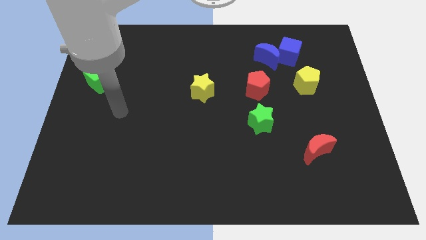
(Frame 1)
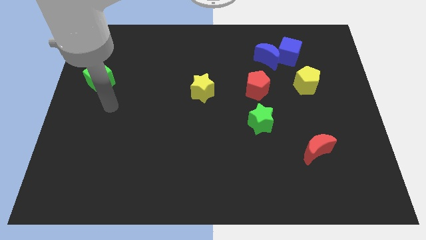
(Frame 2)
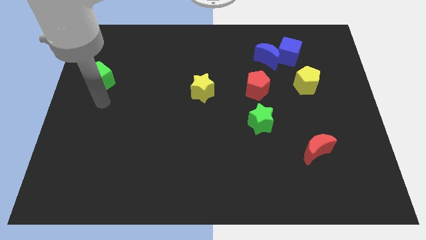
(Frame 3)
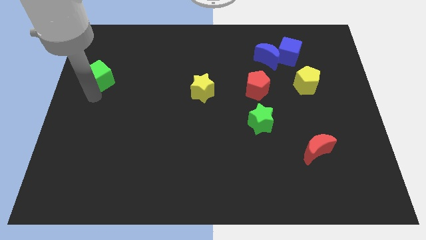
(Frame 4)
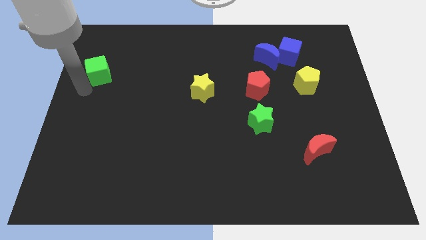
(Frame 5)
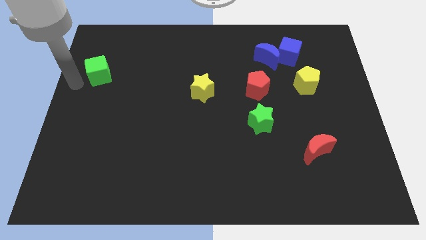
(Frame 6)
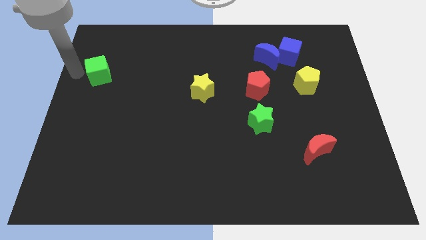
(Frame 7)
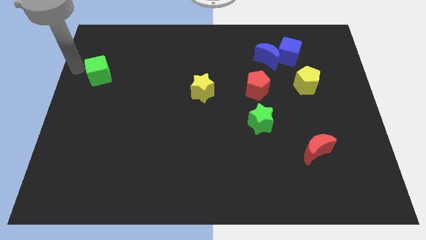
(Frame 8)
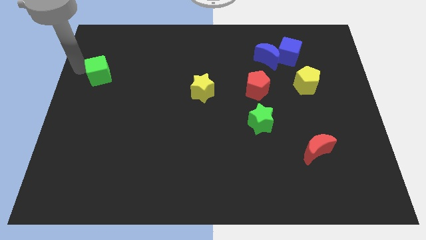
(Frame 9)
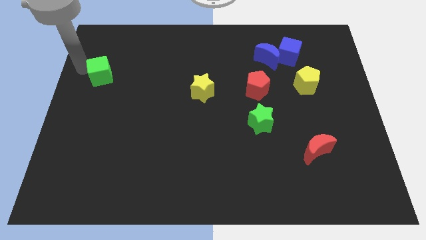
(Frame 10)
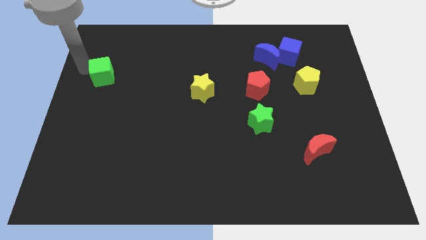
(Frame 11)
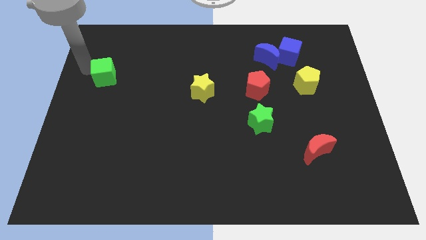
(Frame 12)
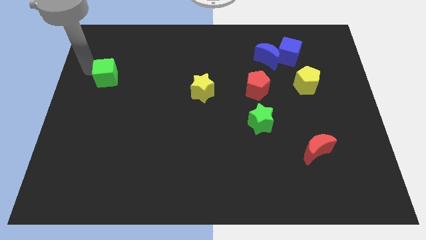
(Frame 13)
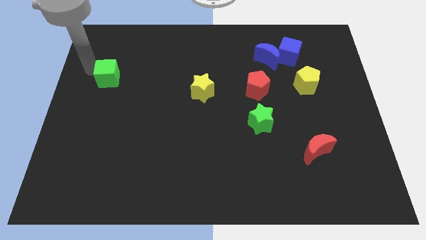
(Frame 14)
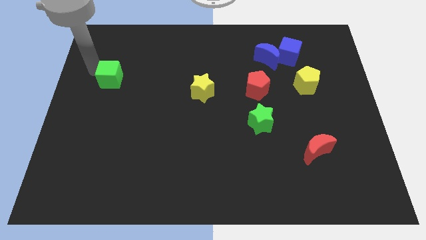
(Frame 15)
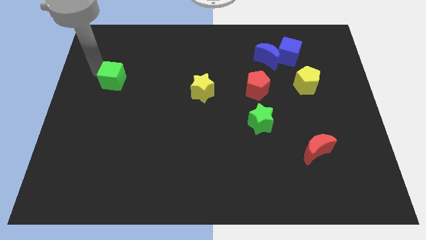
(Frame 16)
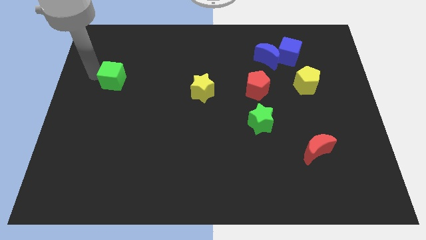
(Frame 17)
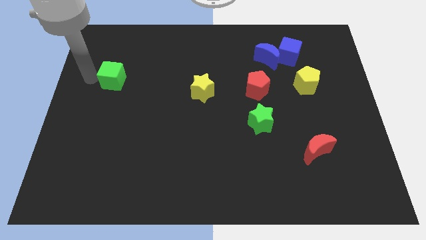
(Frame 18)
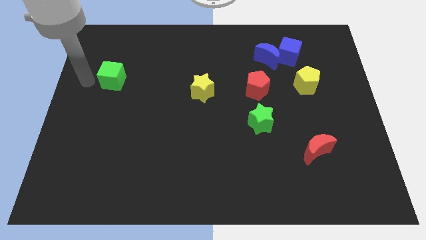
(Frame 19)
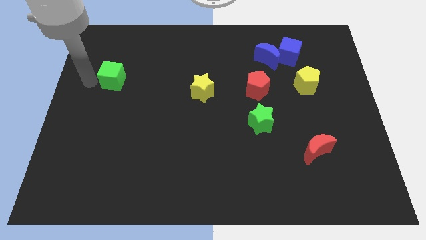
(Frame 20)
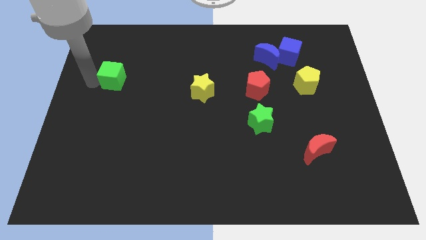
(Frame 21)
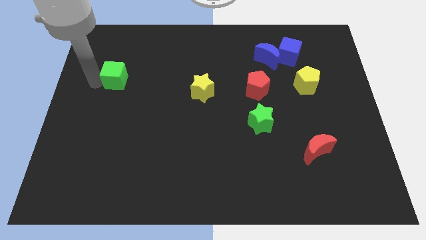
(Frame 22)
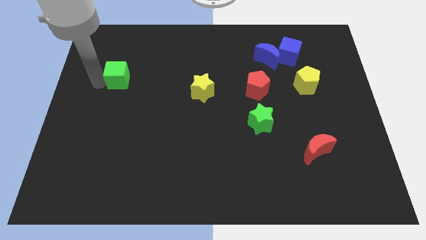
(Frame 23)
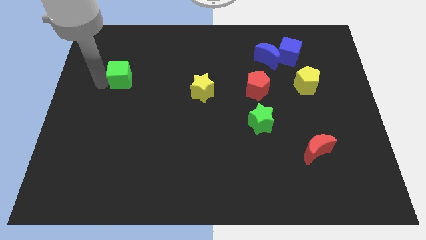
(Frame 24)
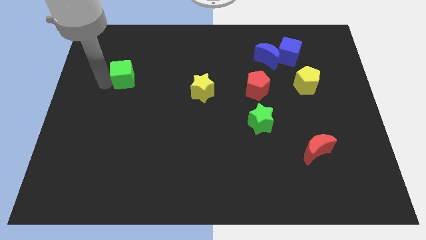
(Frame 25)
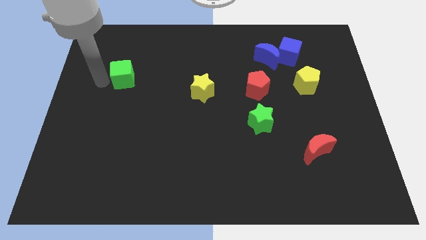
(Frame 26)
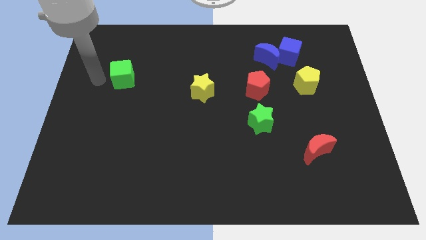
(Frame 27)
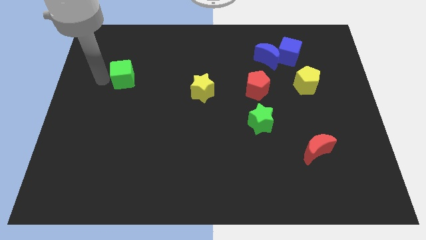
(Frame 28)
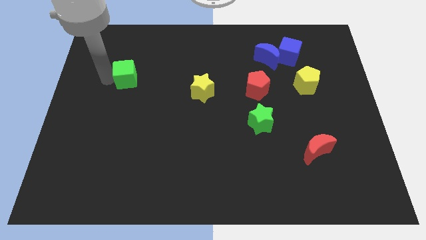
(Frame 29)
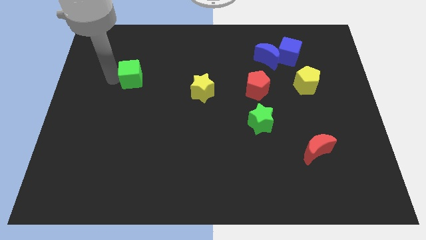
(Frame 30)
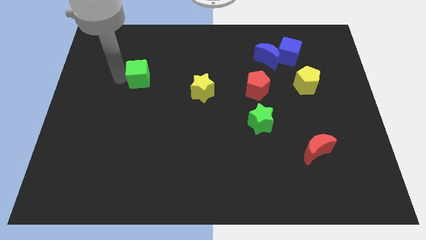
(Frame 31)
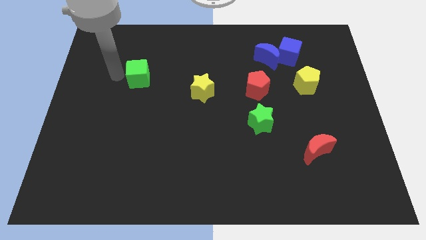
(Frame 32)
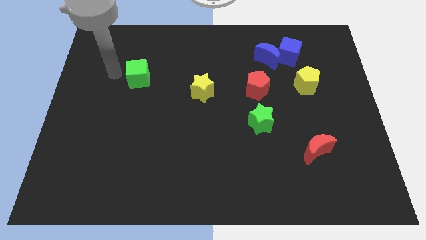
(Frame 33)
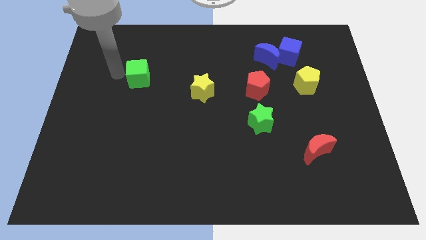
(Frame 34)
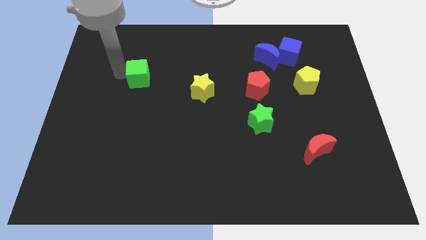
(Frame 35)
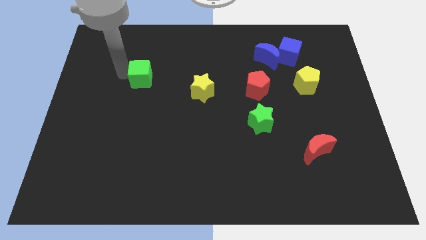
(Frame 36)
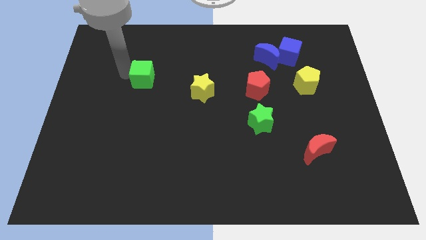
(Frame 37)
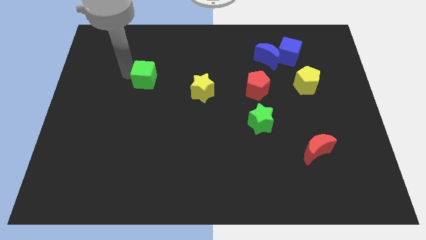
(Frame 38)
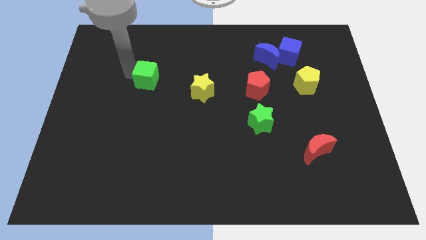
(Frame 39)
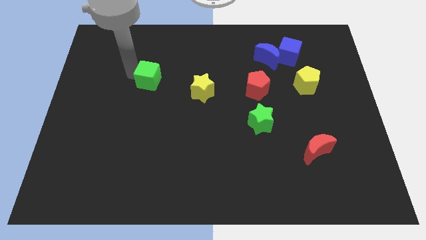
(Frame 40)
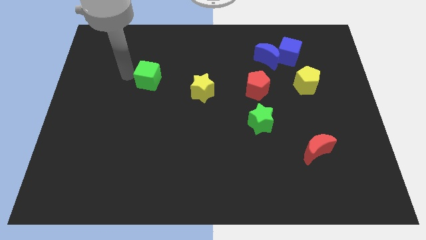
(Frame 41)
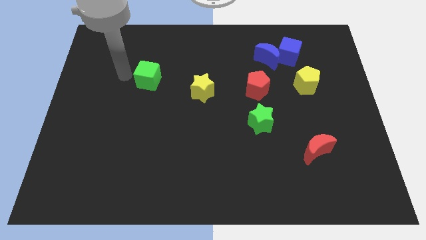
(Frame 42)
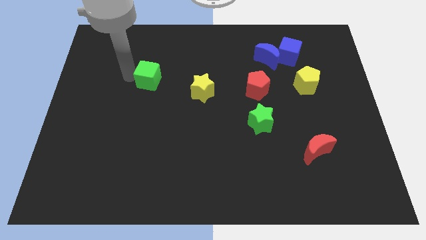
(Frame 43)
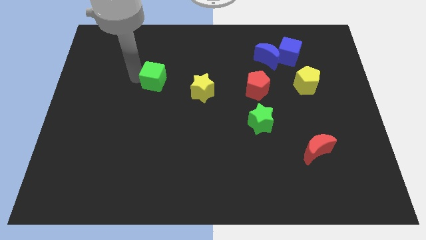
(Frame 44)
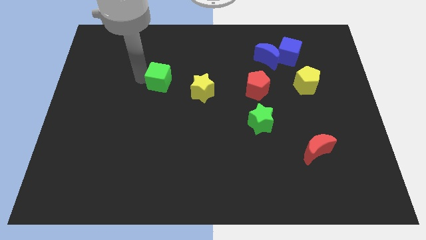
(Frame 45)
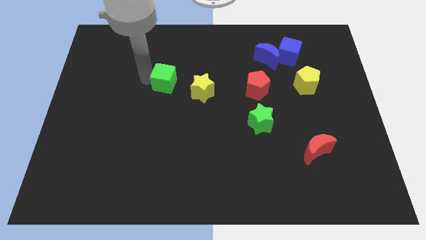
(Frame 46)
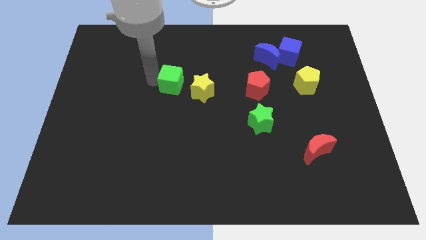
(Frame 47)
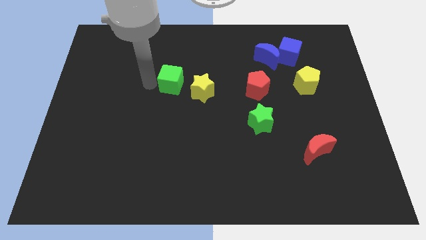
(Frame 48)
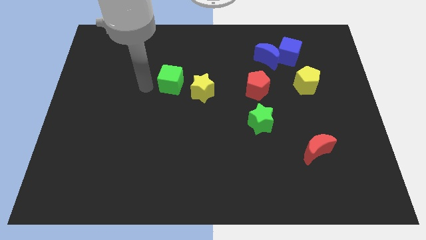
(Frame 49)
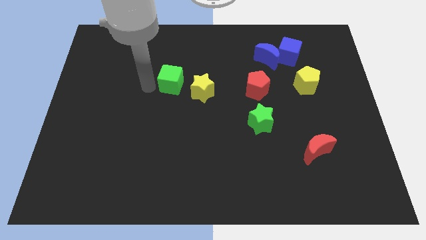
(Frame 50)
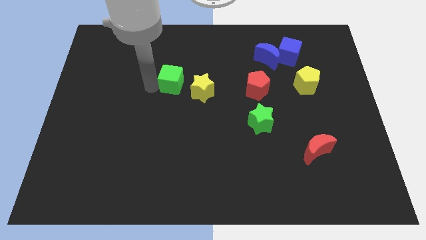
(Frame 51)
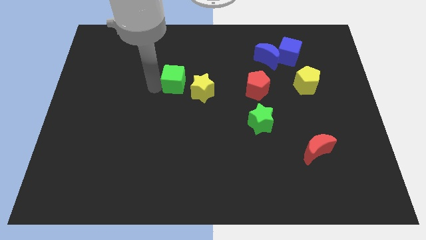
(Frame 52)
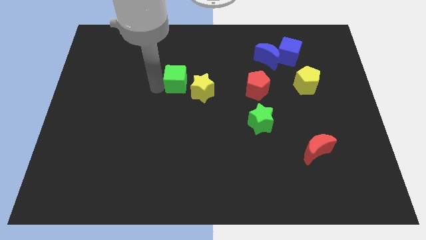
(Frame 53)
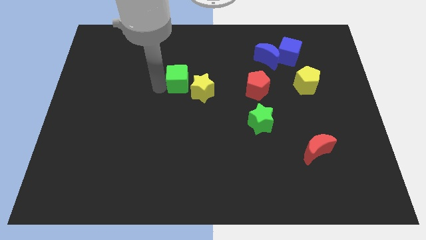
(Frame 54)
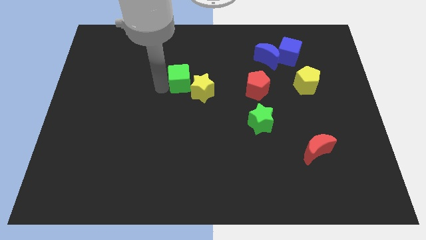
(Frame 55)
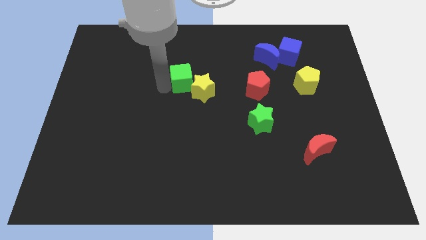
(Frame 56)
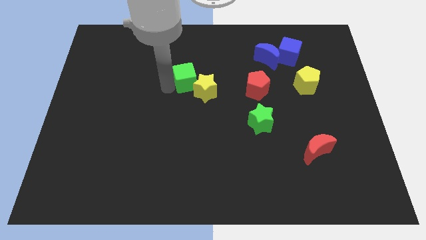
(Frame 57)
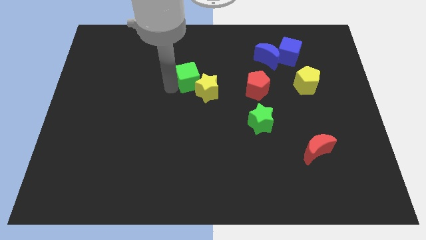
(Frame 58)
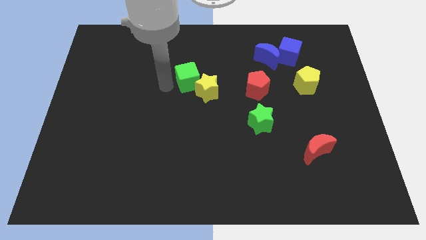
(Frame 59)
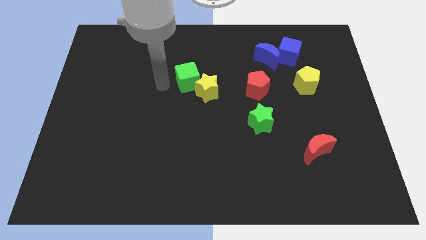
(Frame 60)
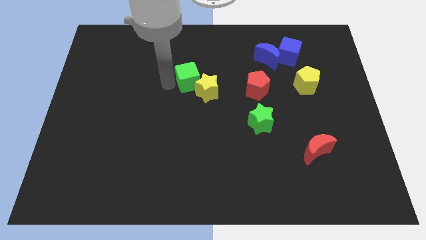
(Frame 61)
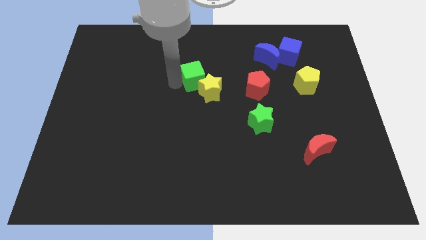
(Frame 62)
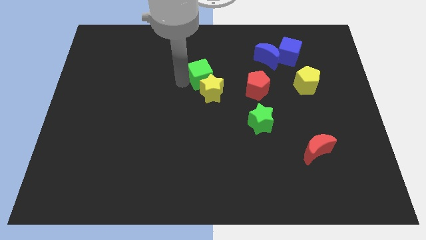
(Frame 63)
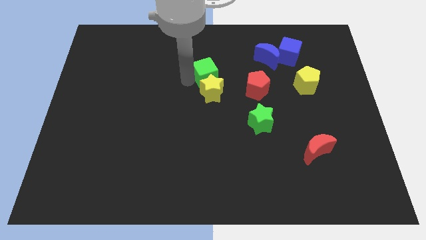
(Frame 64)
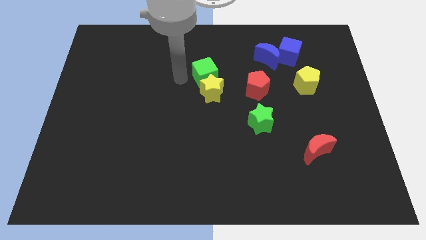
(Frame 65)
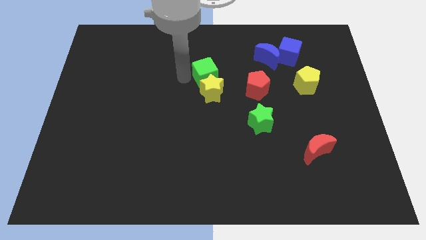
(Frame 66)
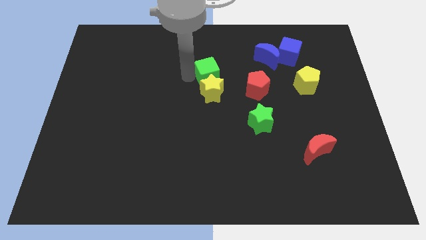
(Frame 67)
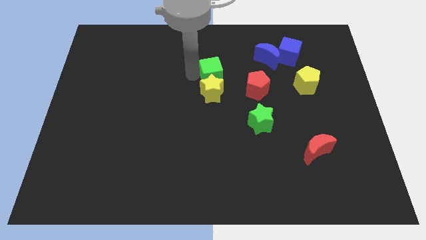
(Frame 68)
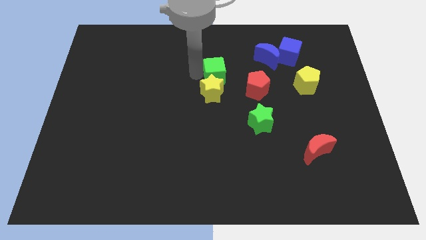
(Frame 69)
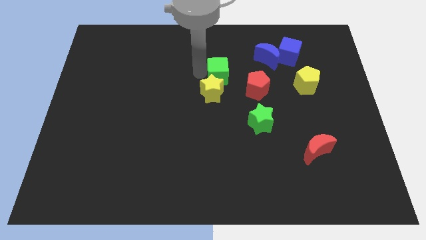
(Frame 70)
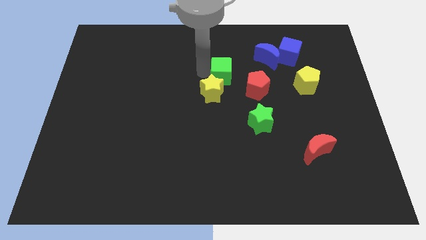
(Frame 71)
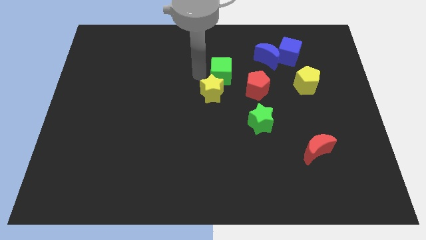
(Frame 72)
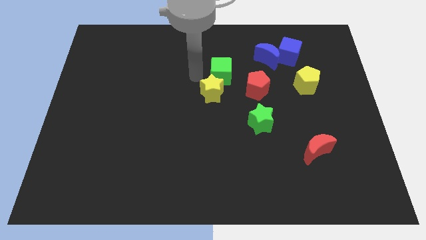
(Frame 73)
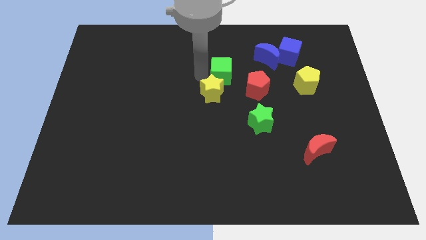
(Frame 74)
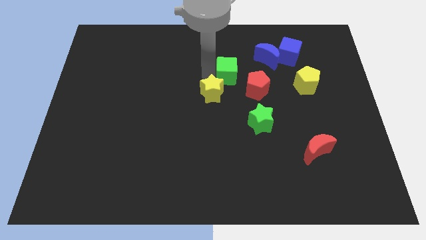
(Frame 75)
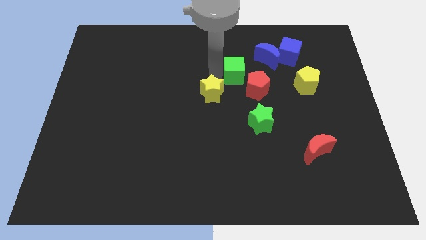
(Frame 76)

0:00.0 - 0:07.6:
move the green cube to the bottom left side of the blue moon
